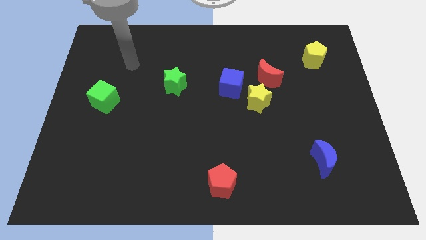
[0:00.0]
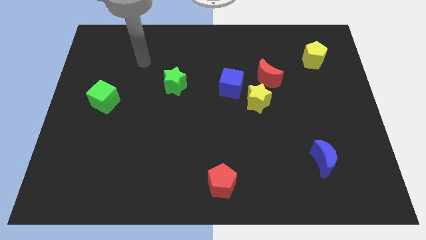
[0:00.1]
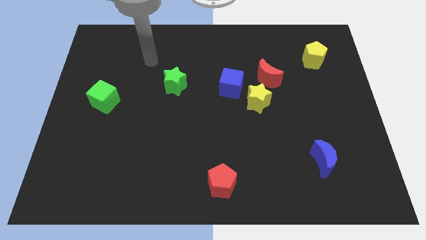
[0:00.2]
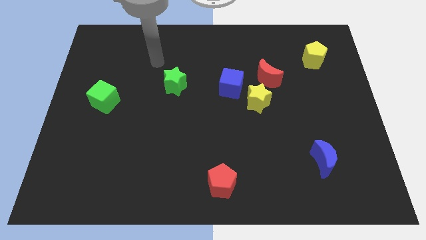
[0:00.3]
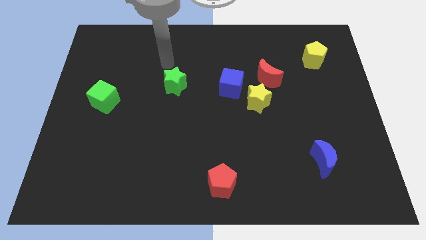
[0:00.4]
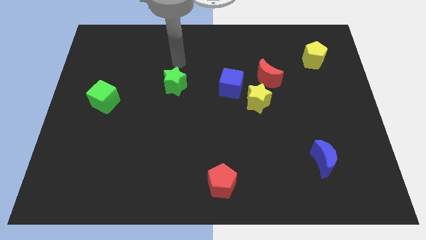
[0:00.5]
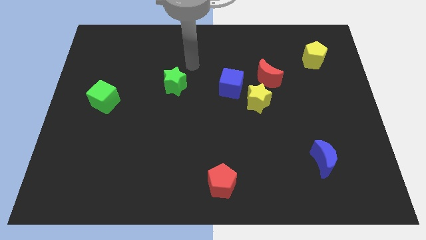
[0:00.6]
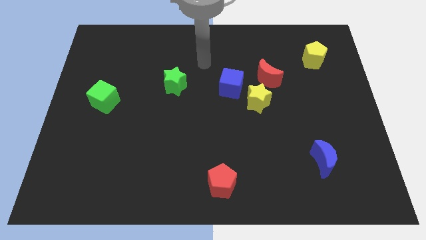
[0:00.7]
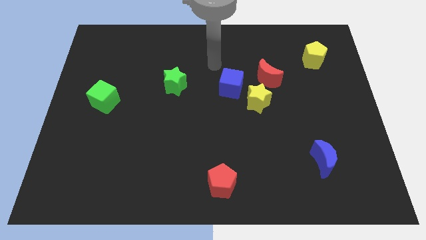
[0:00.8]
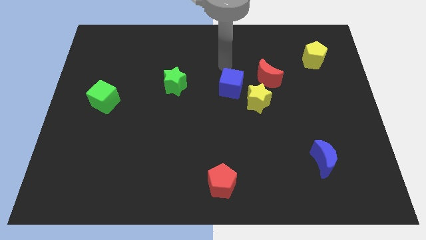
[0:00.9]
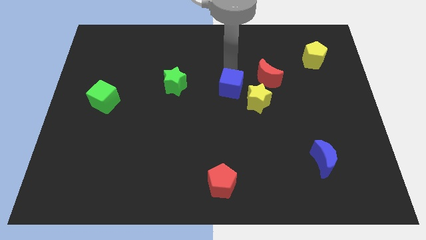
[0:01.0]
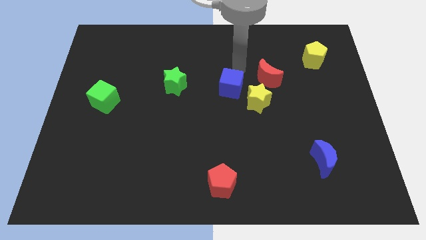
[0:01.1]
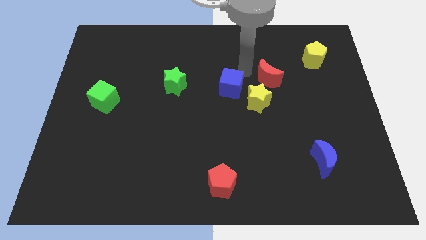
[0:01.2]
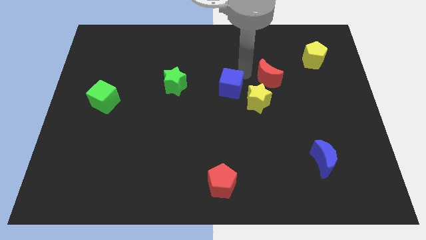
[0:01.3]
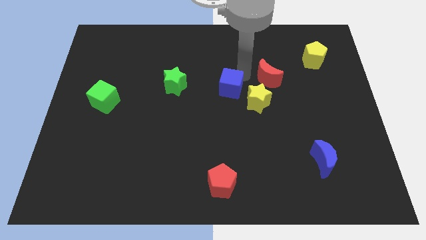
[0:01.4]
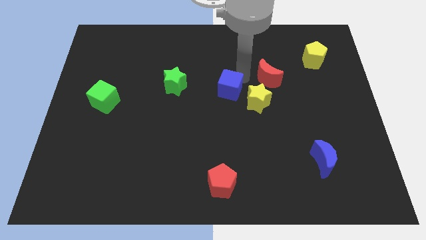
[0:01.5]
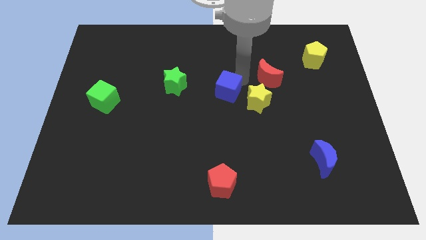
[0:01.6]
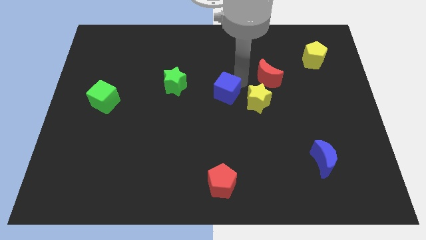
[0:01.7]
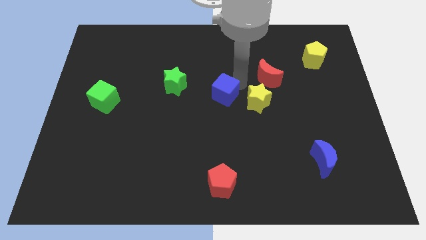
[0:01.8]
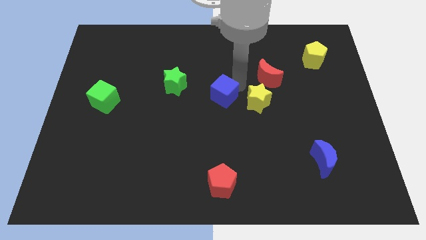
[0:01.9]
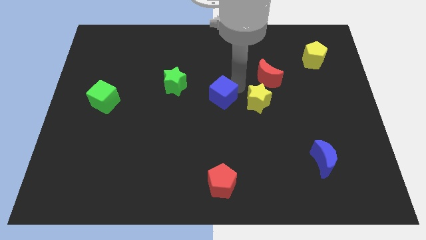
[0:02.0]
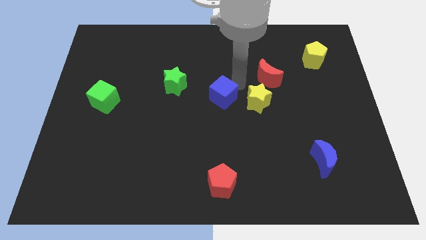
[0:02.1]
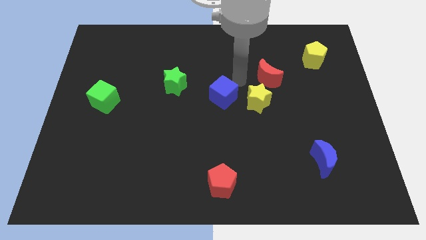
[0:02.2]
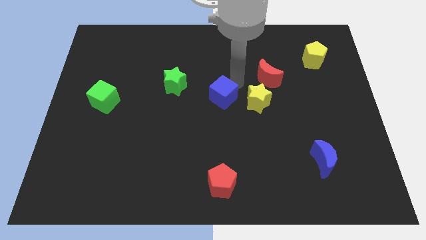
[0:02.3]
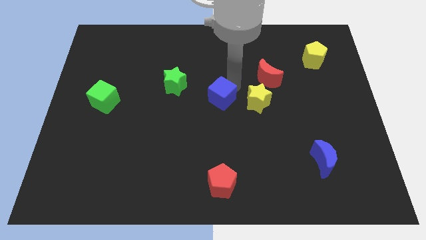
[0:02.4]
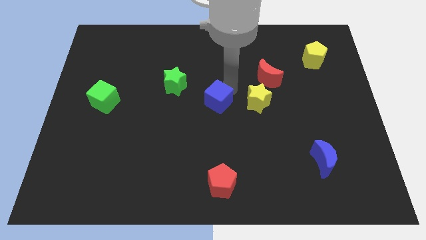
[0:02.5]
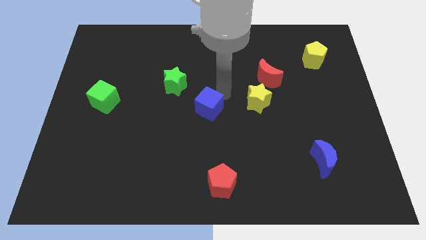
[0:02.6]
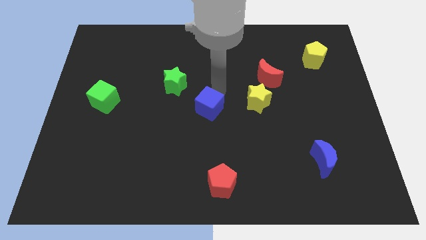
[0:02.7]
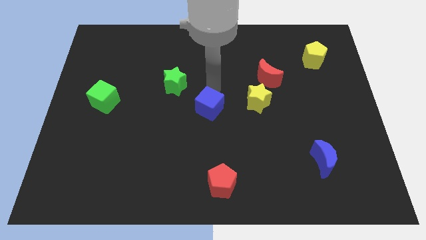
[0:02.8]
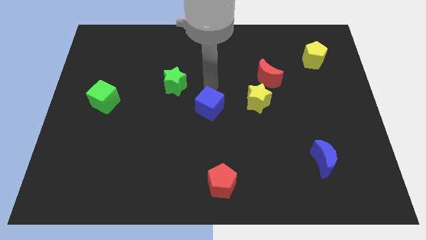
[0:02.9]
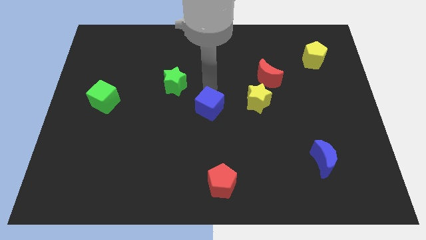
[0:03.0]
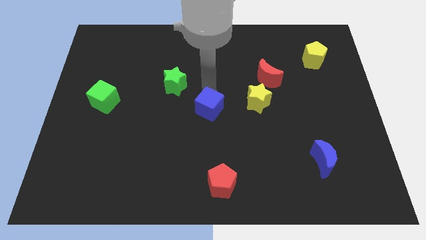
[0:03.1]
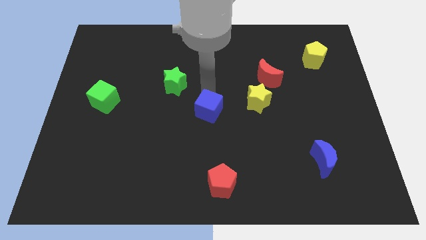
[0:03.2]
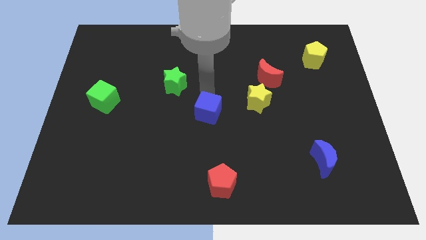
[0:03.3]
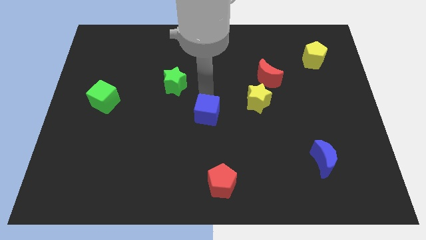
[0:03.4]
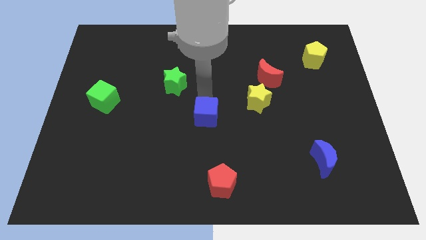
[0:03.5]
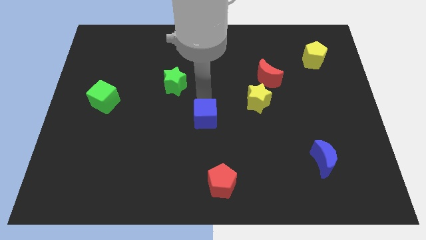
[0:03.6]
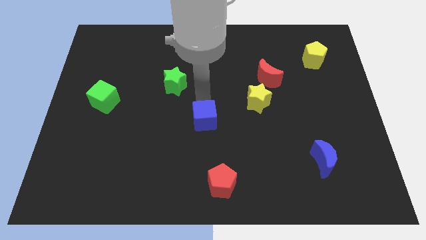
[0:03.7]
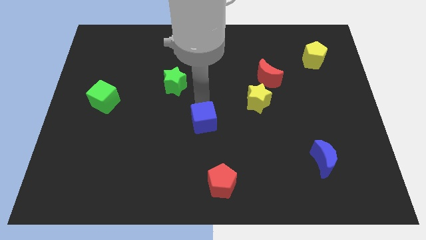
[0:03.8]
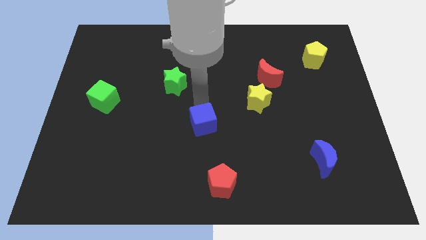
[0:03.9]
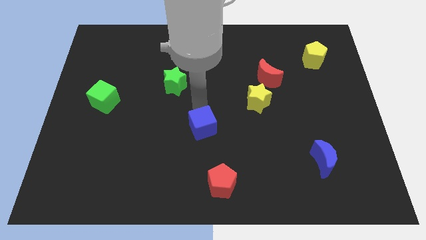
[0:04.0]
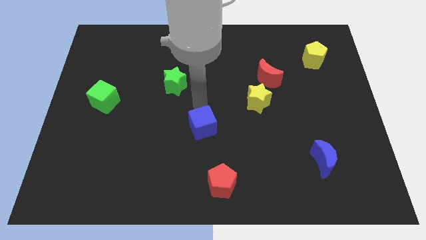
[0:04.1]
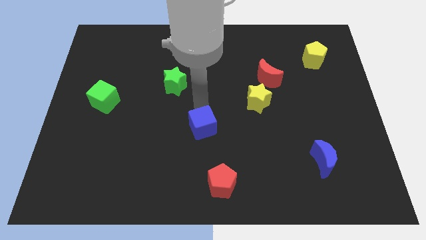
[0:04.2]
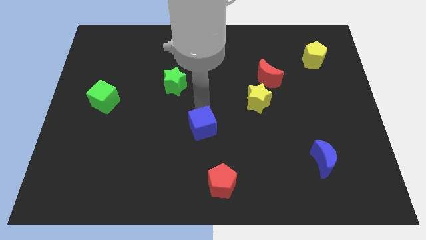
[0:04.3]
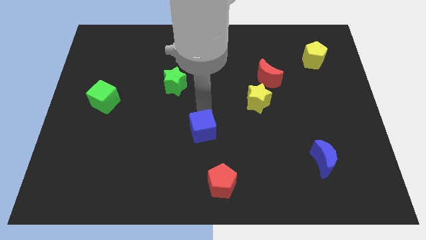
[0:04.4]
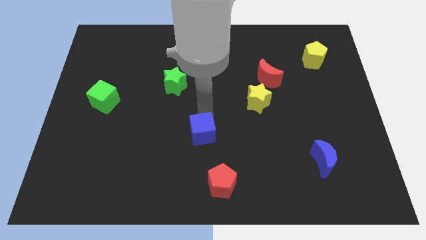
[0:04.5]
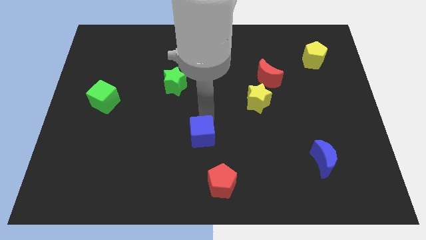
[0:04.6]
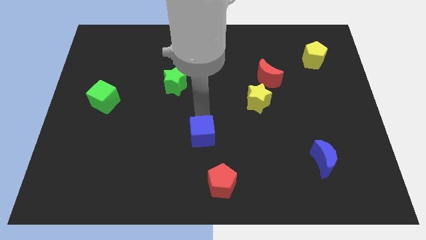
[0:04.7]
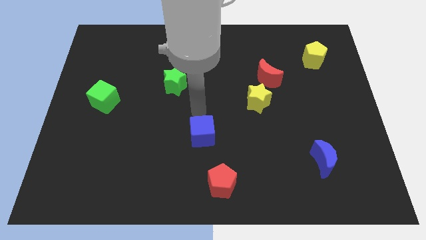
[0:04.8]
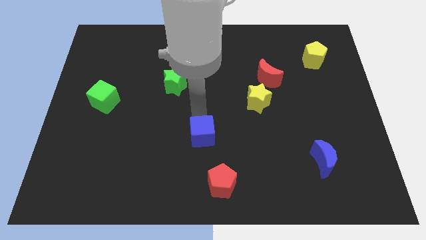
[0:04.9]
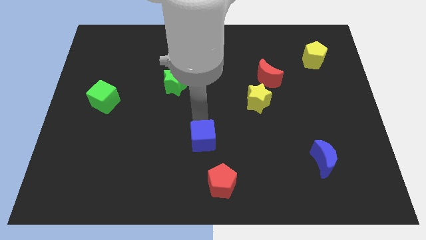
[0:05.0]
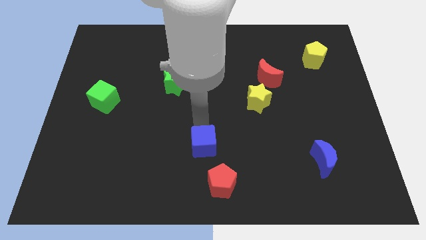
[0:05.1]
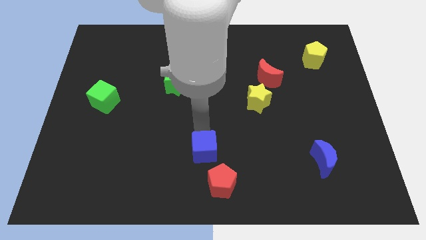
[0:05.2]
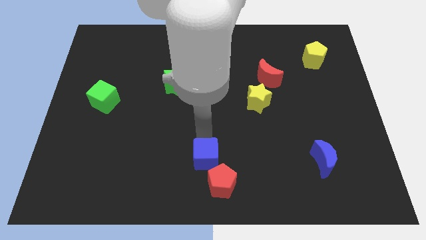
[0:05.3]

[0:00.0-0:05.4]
put the blue cube to the bottom side

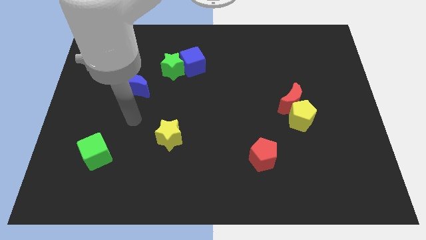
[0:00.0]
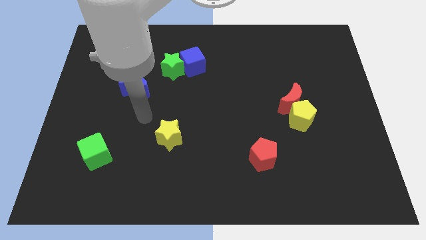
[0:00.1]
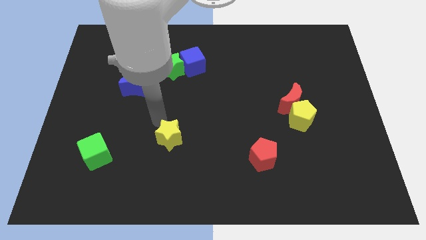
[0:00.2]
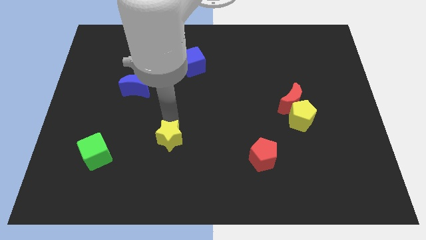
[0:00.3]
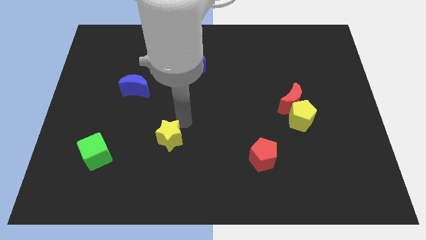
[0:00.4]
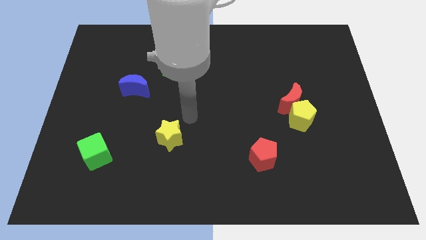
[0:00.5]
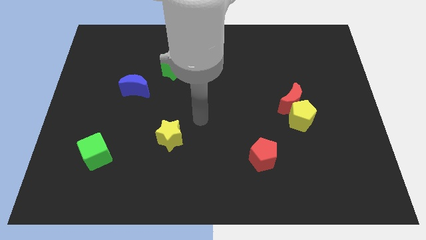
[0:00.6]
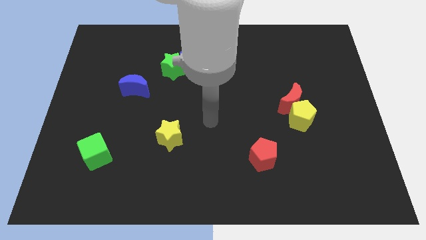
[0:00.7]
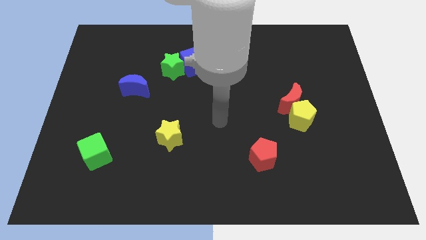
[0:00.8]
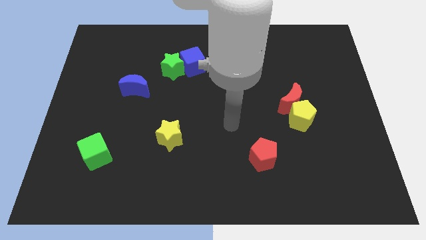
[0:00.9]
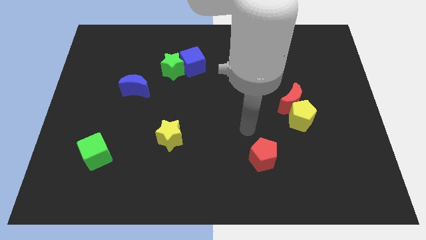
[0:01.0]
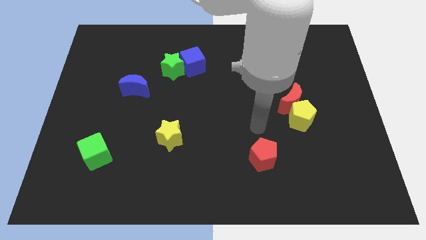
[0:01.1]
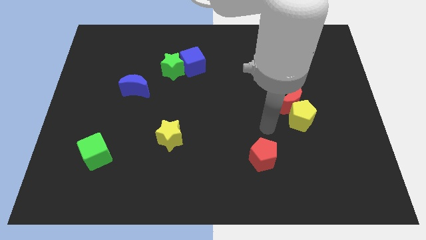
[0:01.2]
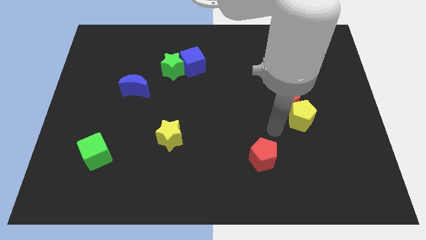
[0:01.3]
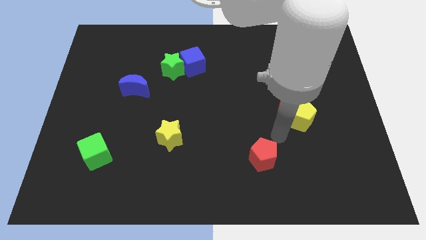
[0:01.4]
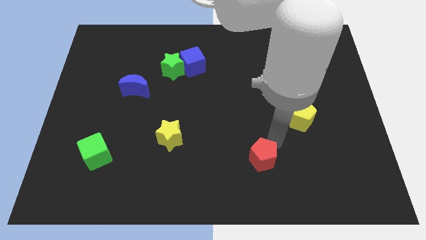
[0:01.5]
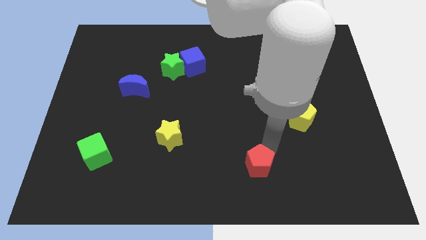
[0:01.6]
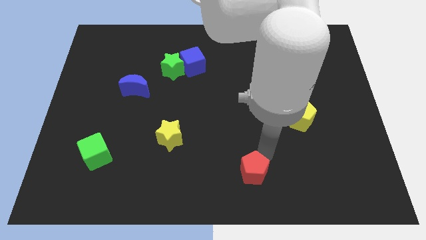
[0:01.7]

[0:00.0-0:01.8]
move the red pentagon to the bottom
